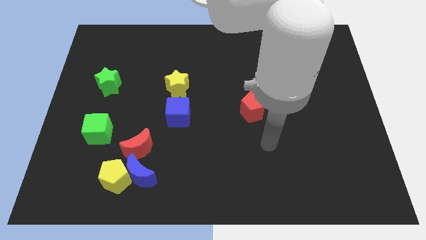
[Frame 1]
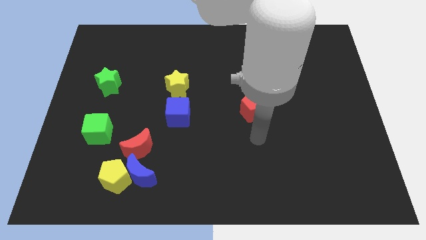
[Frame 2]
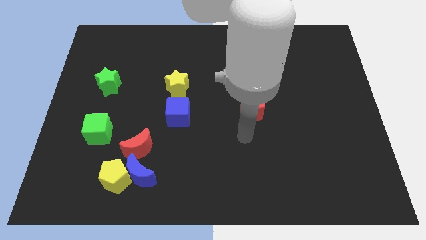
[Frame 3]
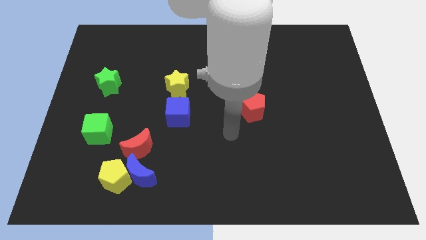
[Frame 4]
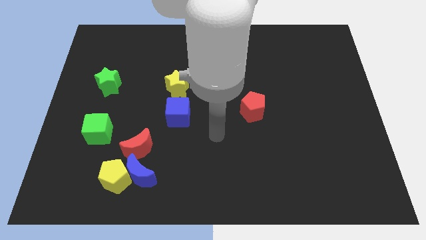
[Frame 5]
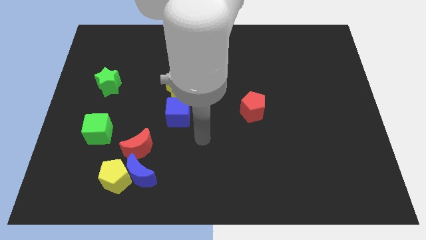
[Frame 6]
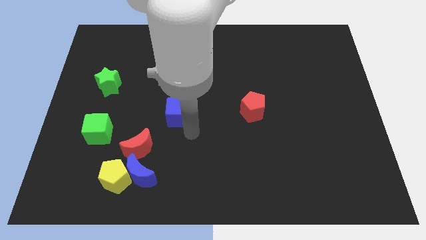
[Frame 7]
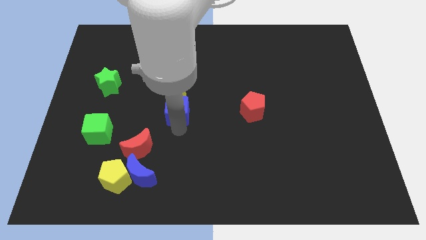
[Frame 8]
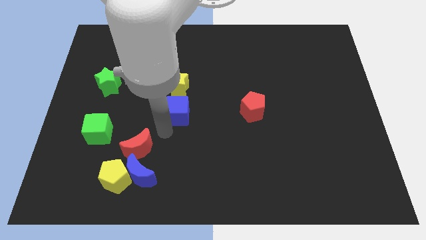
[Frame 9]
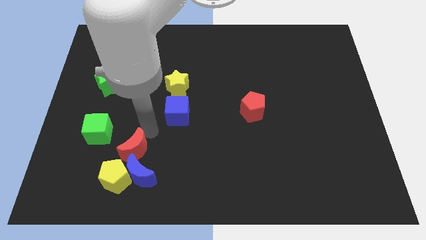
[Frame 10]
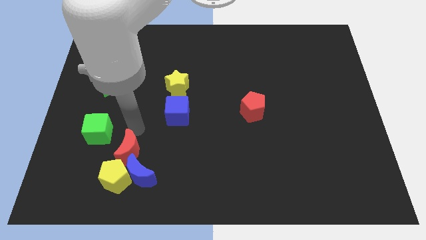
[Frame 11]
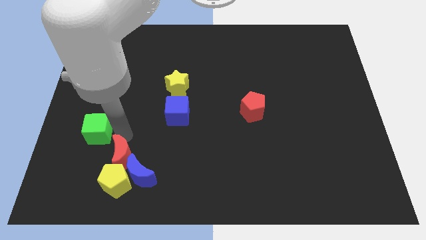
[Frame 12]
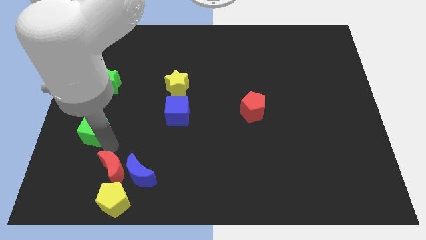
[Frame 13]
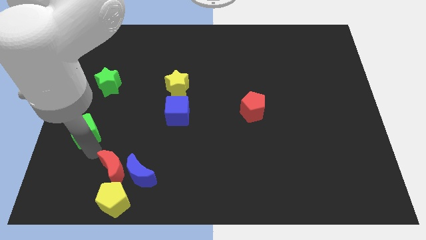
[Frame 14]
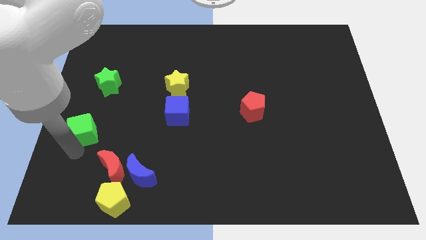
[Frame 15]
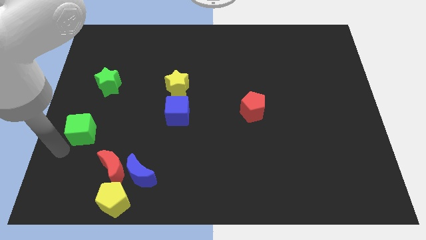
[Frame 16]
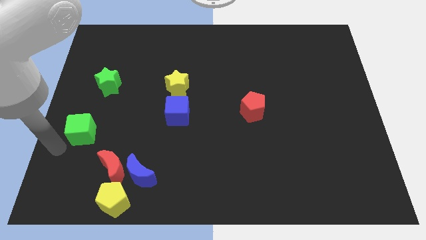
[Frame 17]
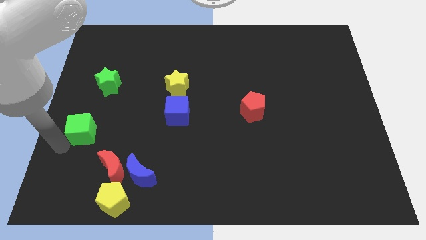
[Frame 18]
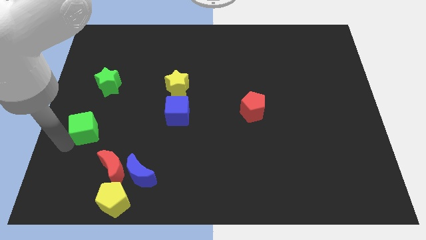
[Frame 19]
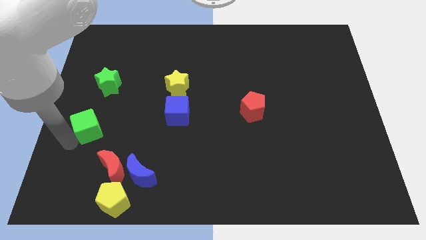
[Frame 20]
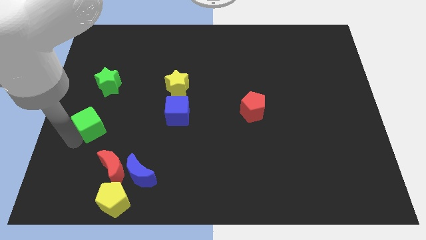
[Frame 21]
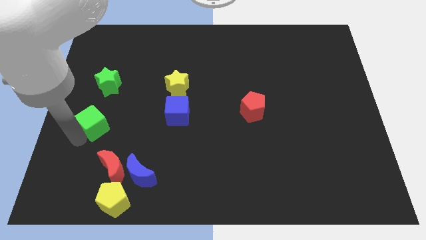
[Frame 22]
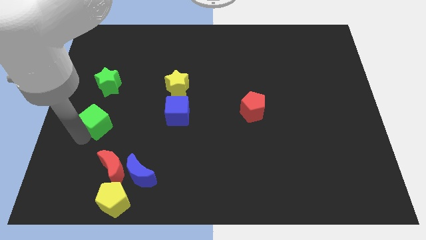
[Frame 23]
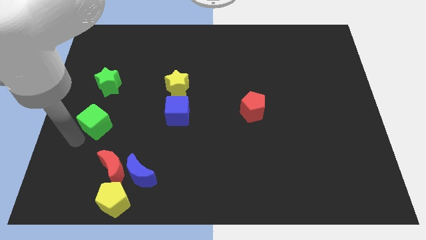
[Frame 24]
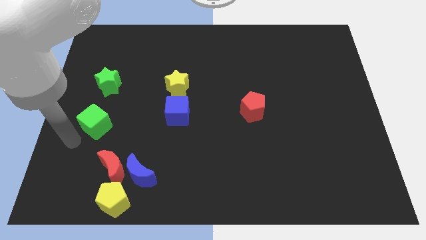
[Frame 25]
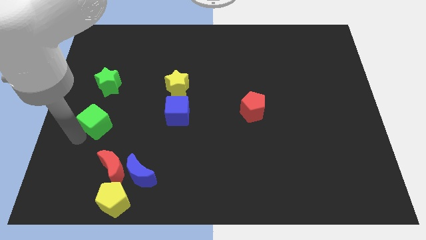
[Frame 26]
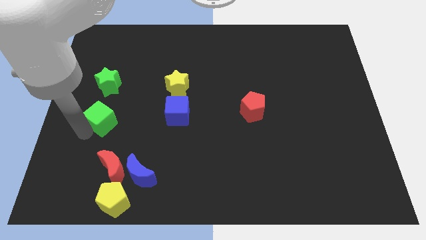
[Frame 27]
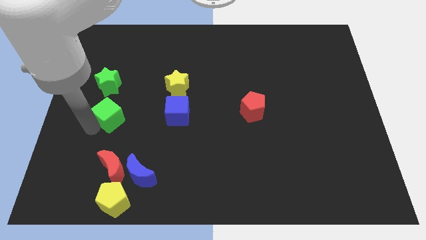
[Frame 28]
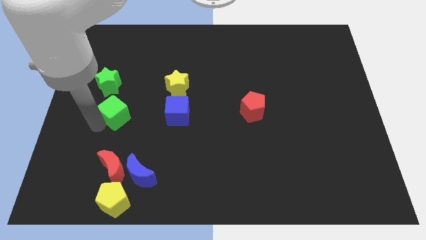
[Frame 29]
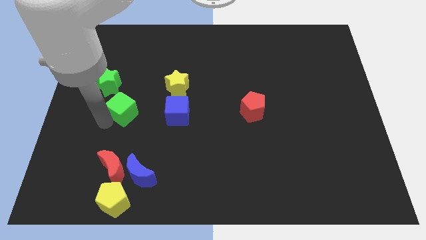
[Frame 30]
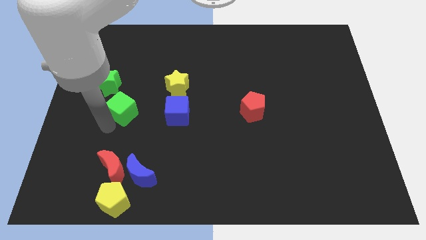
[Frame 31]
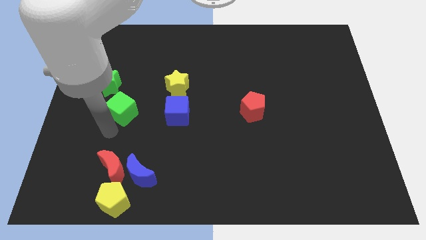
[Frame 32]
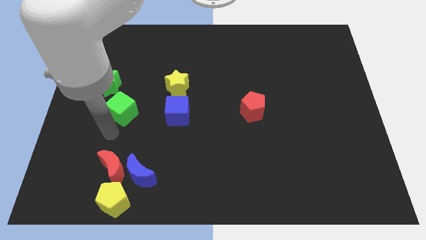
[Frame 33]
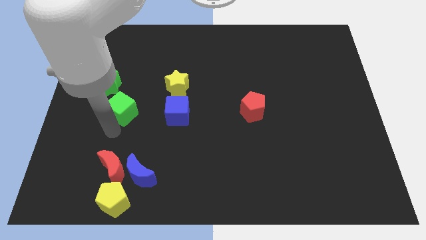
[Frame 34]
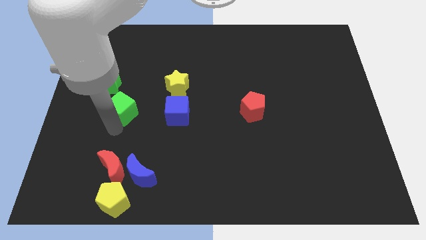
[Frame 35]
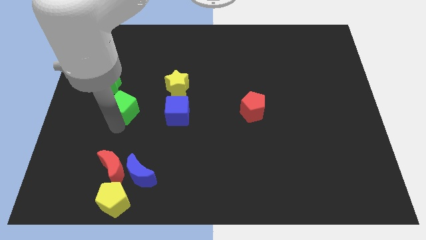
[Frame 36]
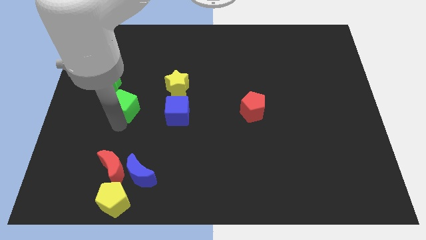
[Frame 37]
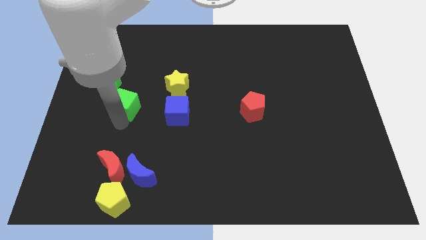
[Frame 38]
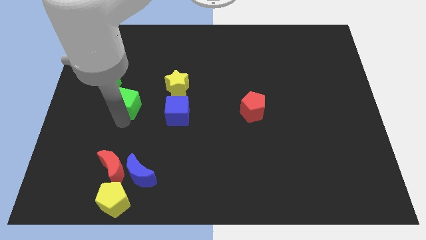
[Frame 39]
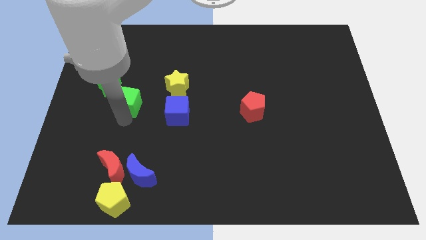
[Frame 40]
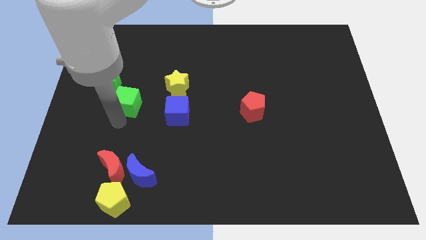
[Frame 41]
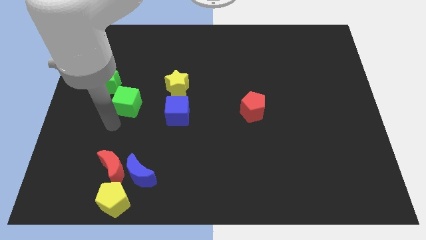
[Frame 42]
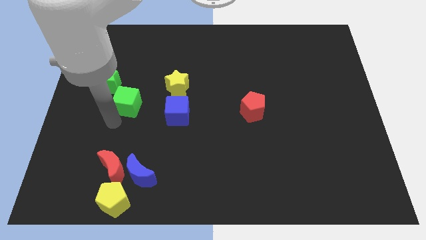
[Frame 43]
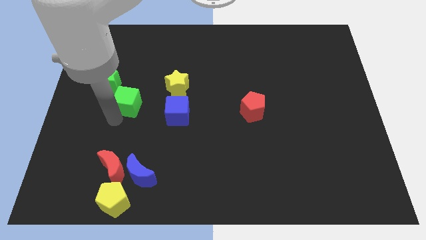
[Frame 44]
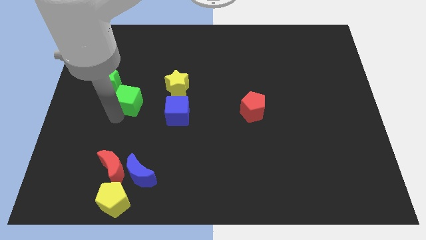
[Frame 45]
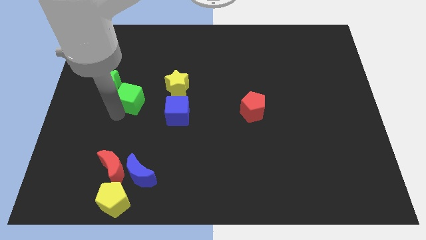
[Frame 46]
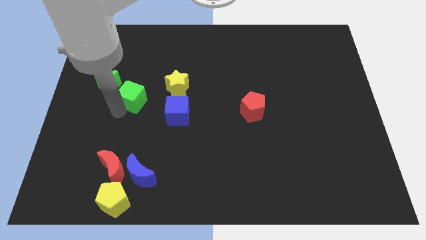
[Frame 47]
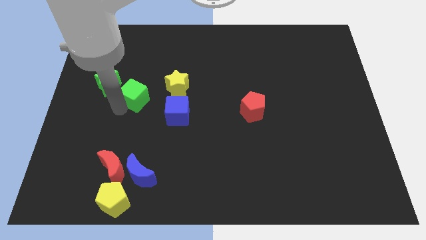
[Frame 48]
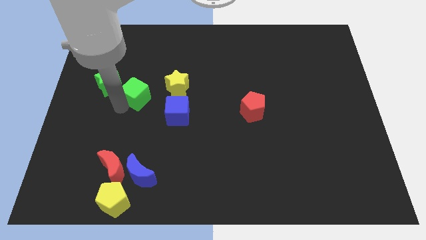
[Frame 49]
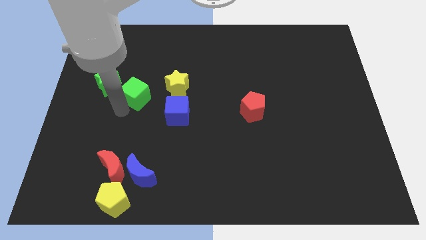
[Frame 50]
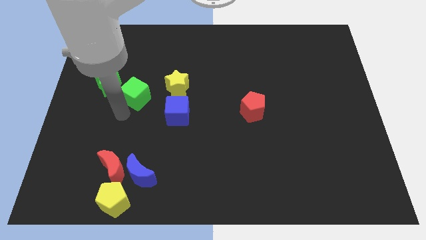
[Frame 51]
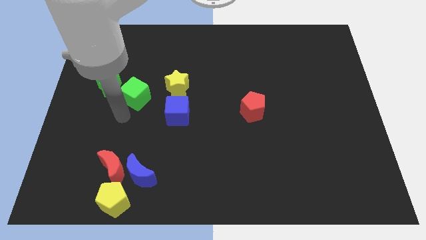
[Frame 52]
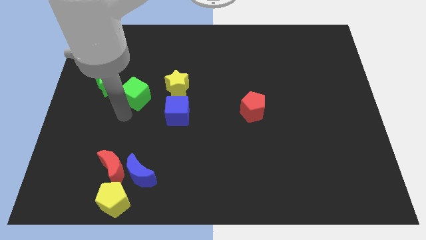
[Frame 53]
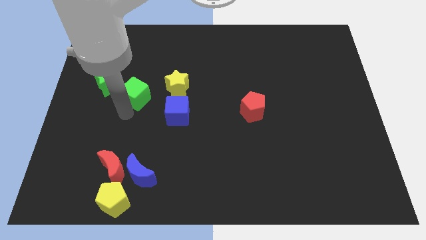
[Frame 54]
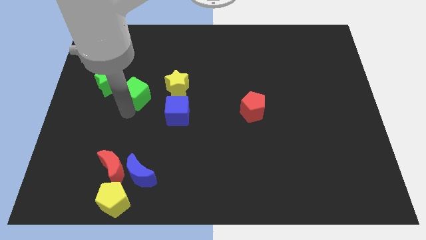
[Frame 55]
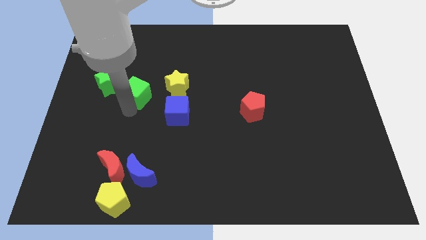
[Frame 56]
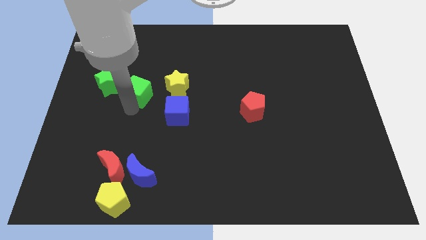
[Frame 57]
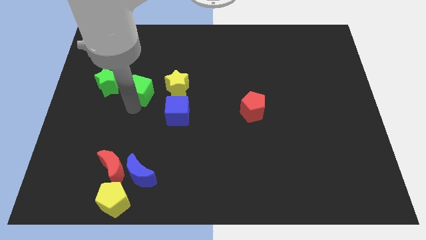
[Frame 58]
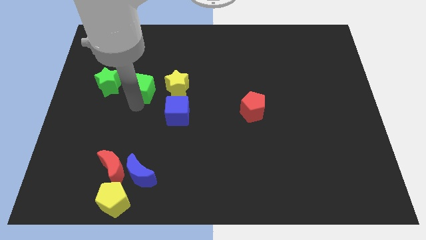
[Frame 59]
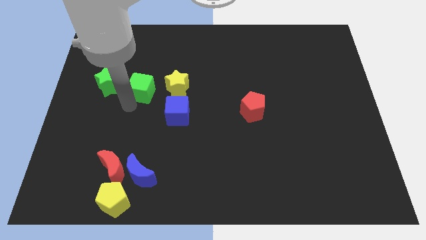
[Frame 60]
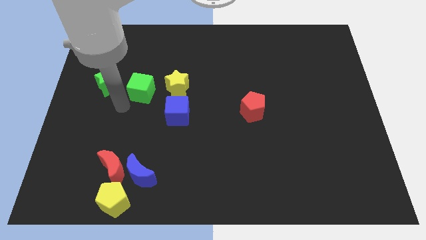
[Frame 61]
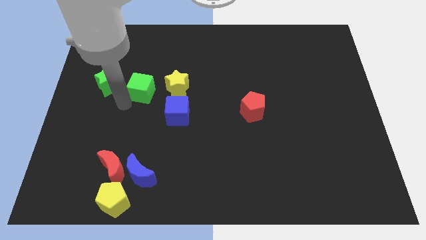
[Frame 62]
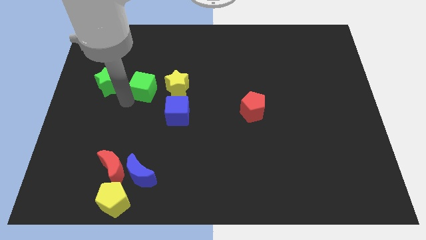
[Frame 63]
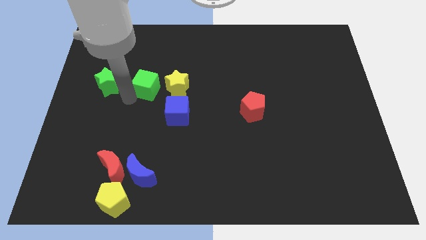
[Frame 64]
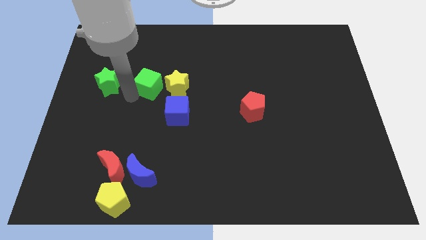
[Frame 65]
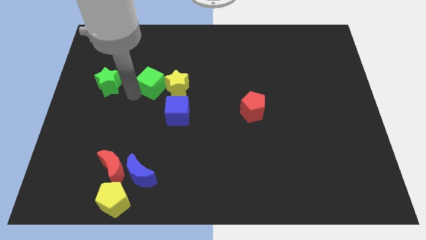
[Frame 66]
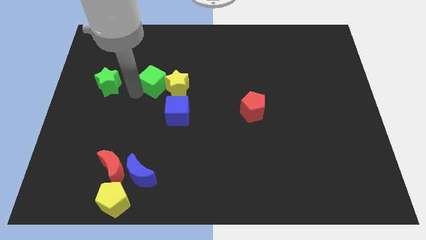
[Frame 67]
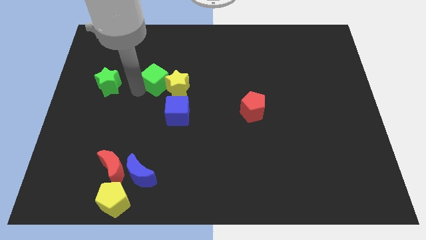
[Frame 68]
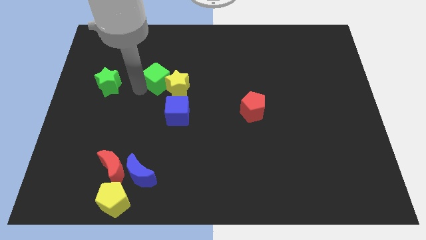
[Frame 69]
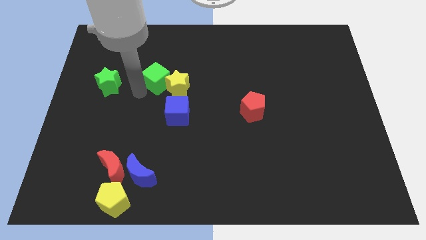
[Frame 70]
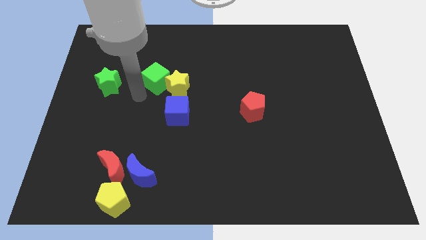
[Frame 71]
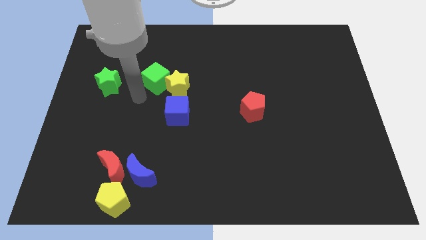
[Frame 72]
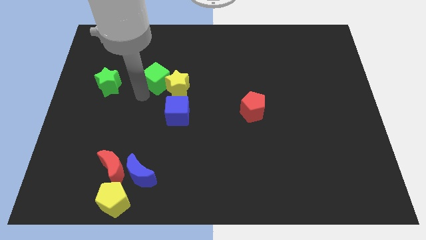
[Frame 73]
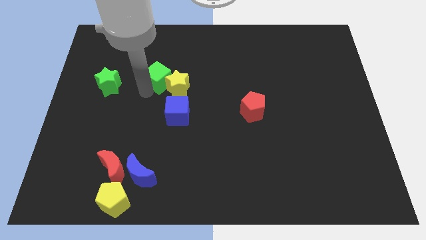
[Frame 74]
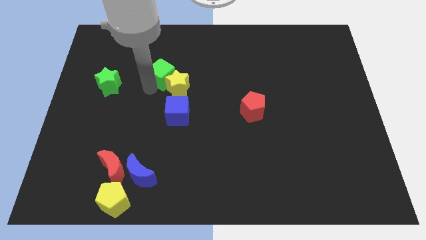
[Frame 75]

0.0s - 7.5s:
push the green cube upwards and then to the right

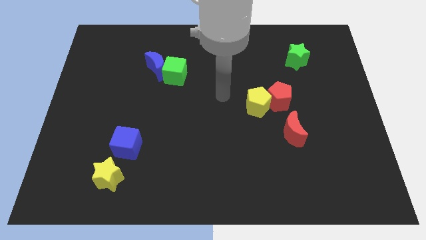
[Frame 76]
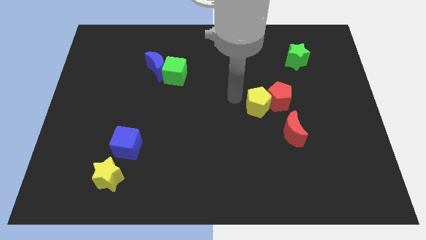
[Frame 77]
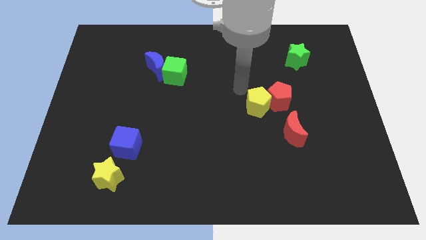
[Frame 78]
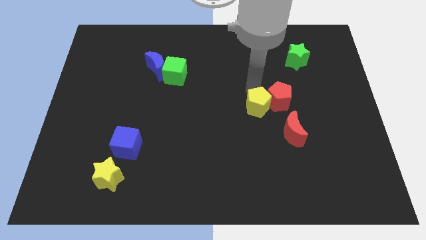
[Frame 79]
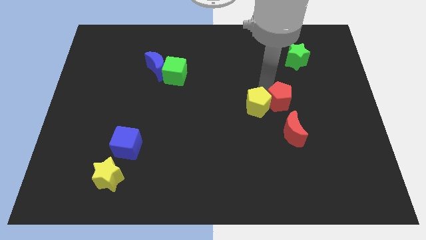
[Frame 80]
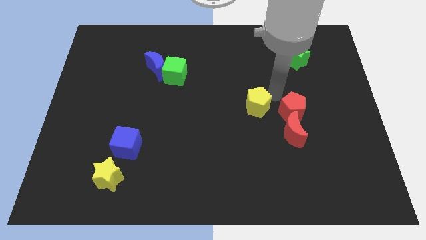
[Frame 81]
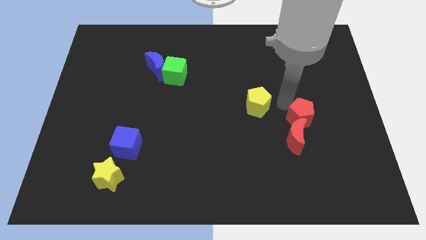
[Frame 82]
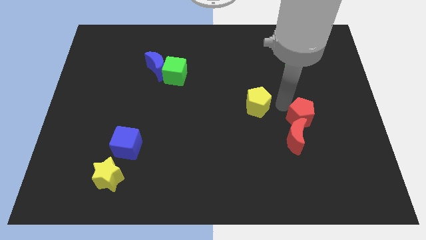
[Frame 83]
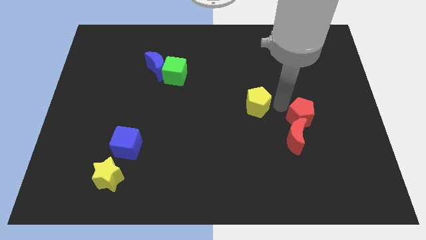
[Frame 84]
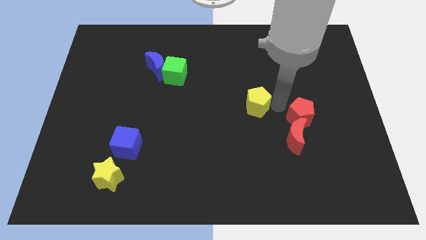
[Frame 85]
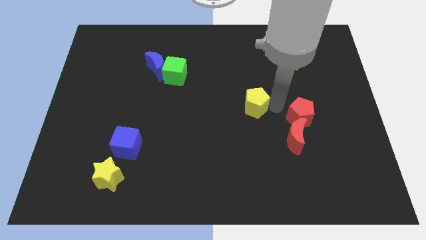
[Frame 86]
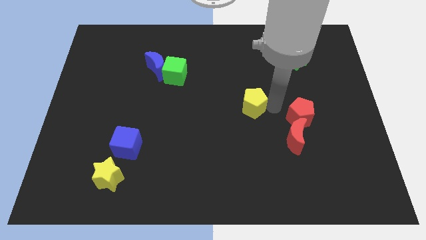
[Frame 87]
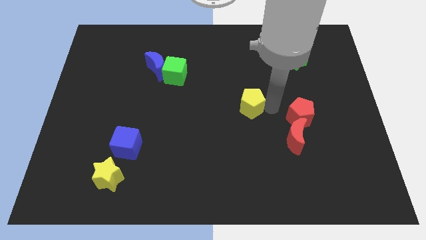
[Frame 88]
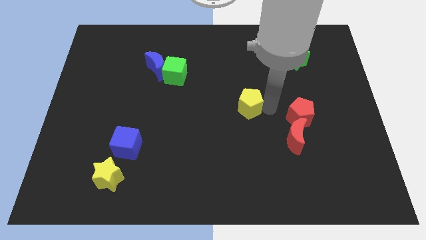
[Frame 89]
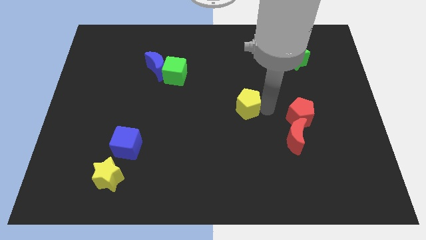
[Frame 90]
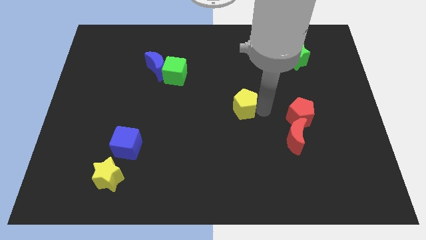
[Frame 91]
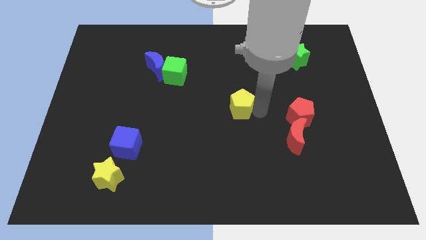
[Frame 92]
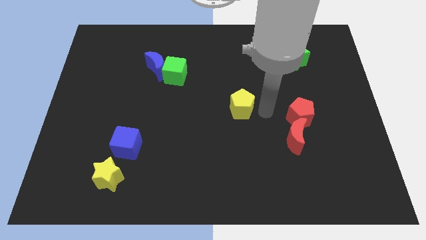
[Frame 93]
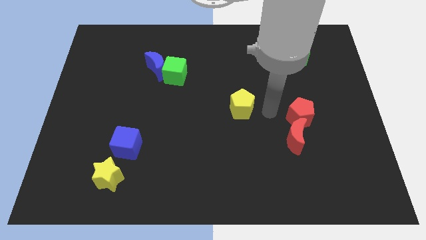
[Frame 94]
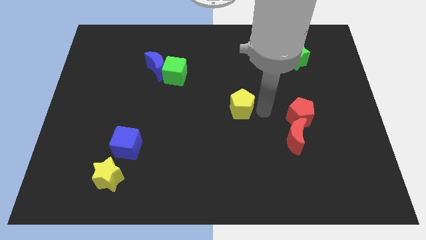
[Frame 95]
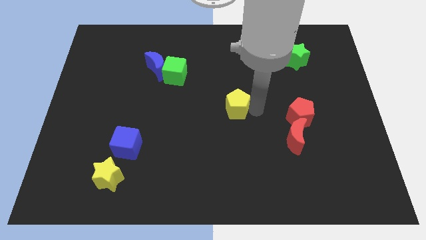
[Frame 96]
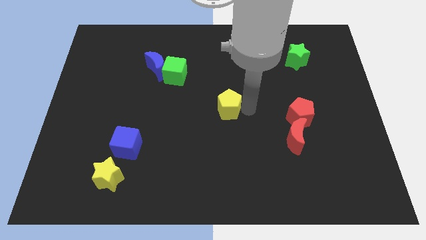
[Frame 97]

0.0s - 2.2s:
push the yellow pentagon to the left somewhat
